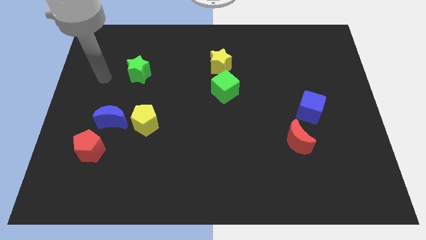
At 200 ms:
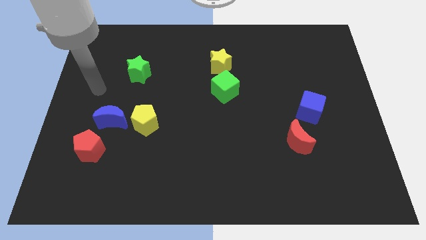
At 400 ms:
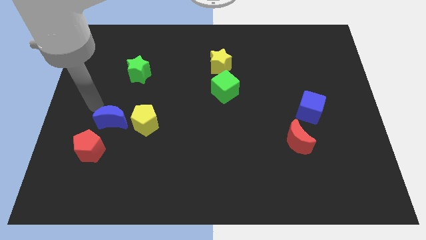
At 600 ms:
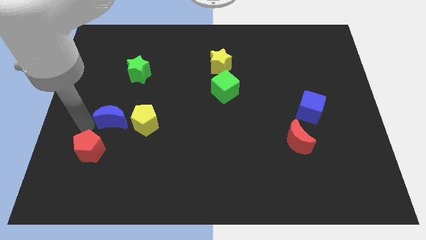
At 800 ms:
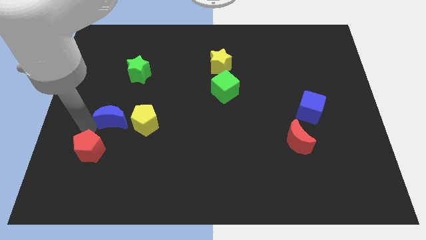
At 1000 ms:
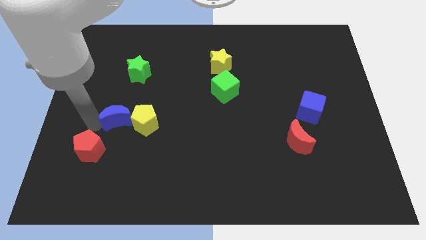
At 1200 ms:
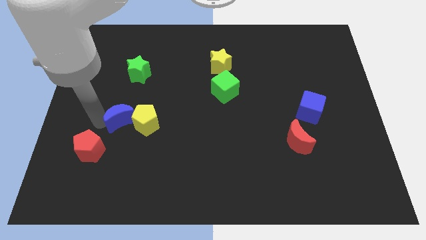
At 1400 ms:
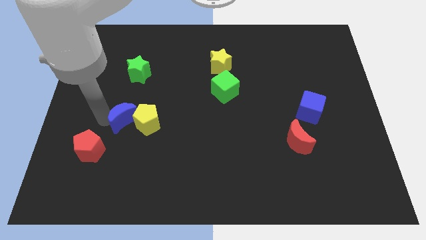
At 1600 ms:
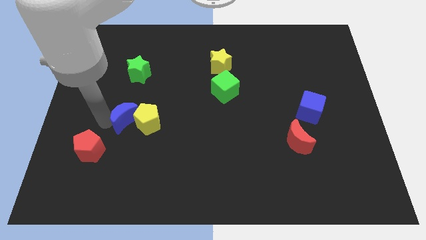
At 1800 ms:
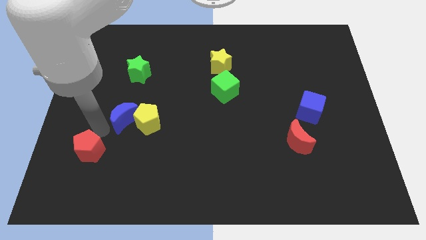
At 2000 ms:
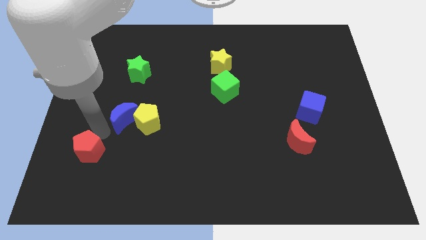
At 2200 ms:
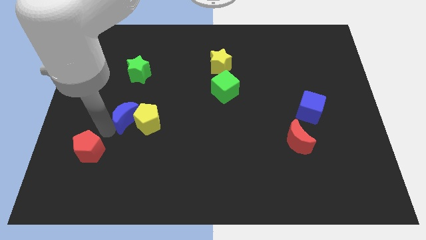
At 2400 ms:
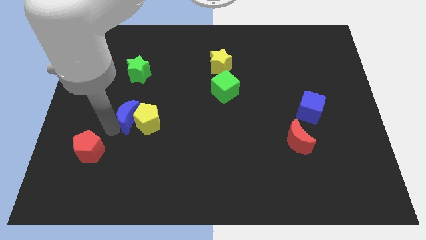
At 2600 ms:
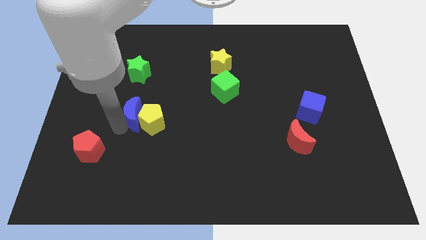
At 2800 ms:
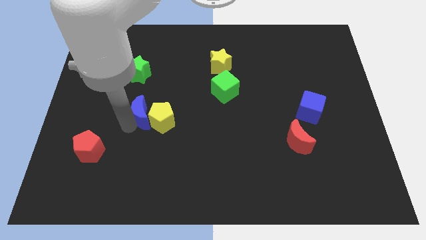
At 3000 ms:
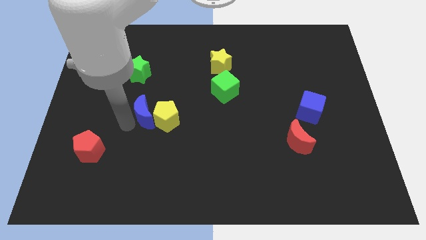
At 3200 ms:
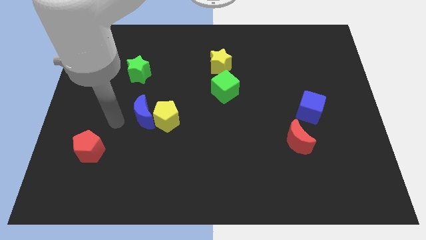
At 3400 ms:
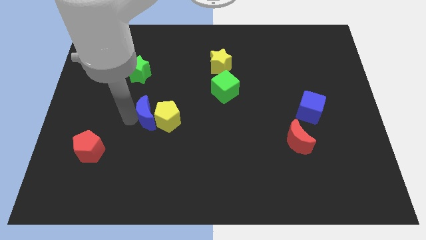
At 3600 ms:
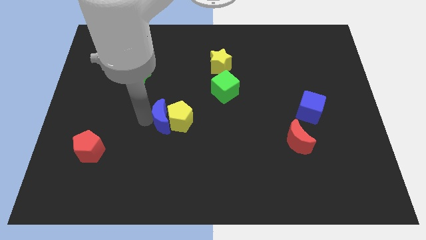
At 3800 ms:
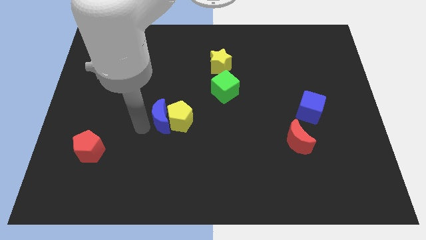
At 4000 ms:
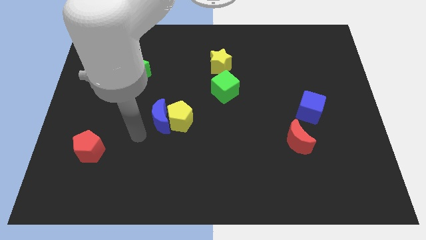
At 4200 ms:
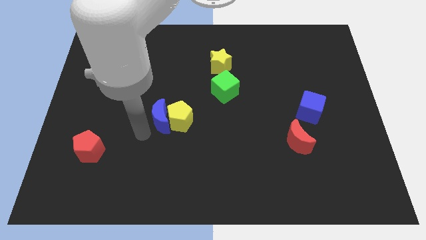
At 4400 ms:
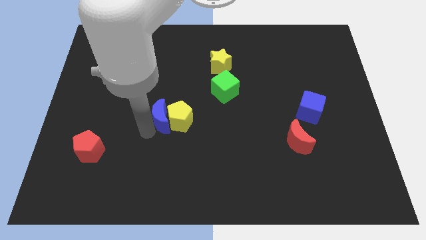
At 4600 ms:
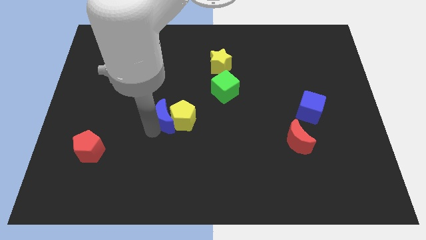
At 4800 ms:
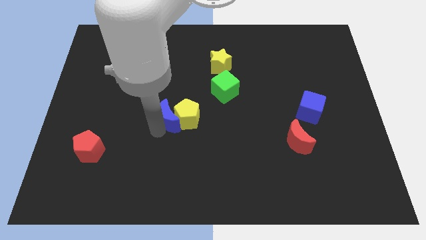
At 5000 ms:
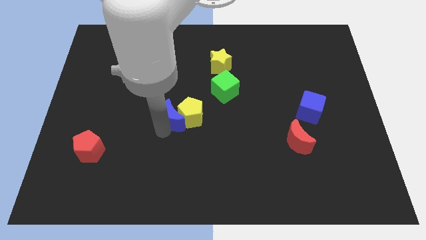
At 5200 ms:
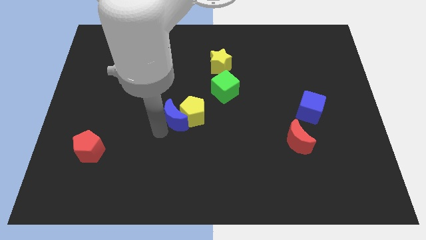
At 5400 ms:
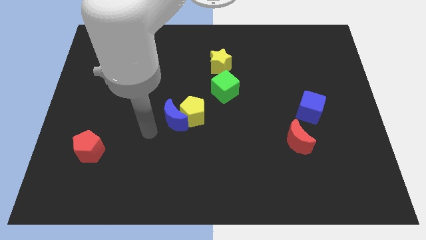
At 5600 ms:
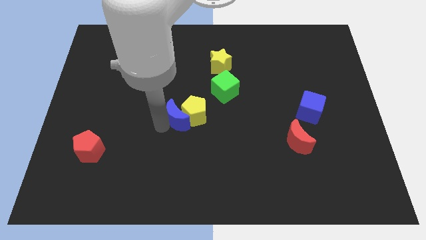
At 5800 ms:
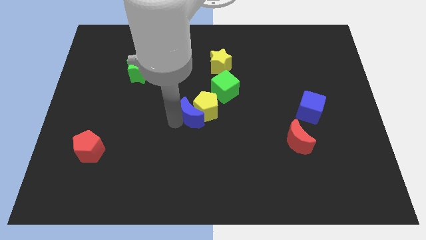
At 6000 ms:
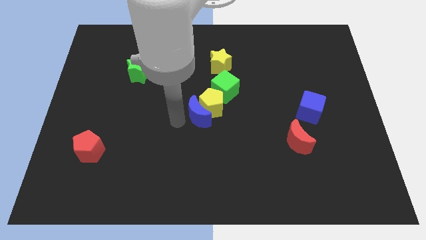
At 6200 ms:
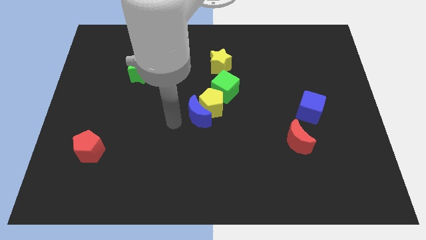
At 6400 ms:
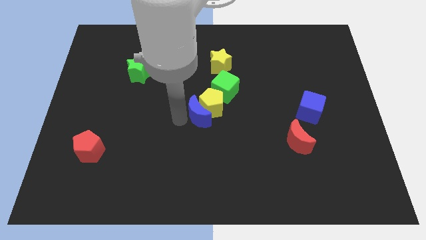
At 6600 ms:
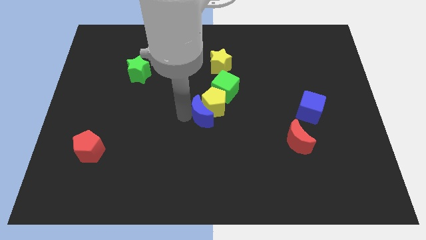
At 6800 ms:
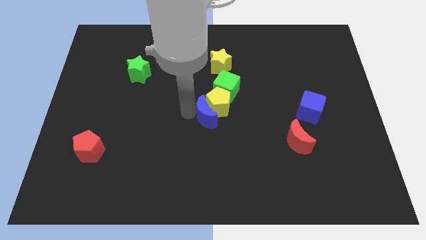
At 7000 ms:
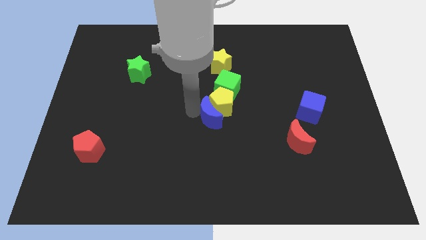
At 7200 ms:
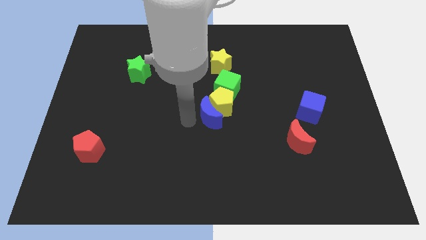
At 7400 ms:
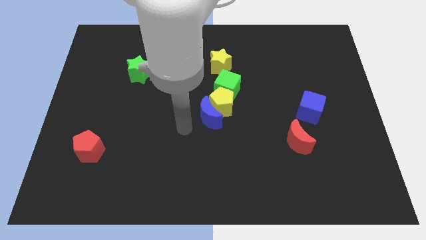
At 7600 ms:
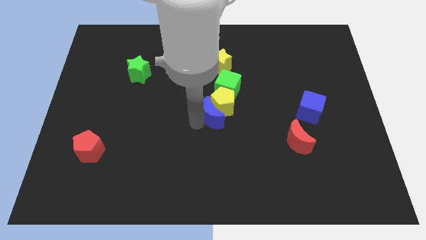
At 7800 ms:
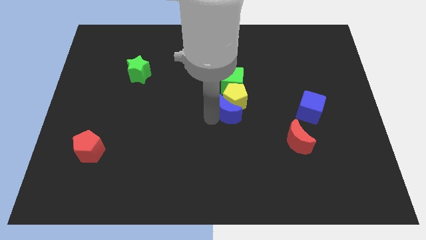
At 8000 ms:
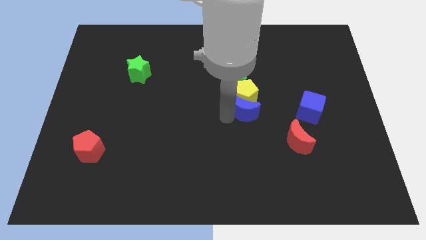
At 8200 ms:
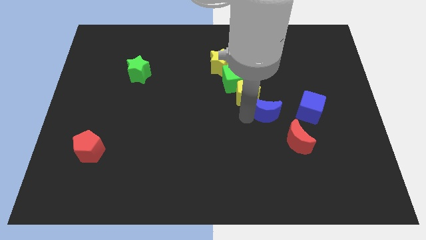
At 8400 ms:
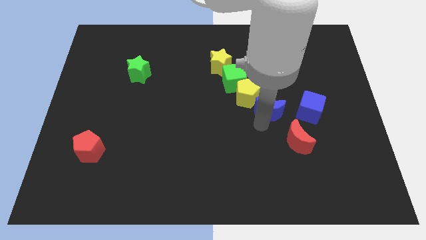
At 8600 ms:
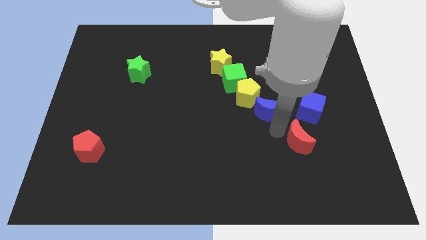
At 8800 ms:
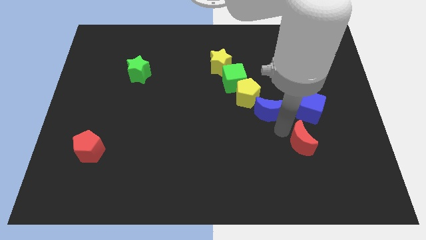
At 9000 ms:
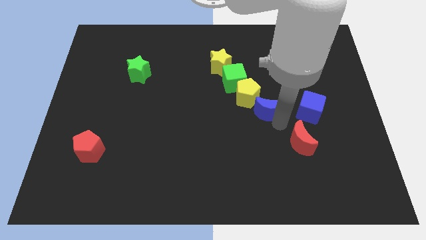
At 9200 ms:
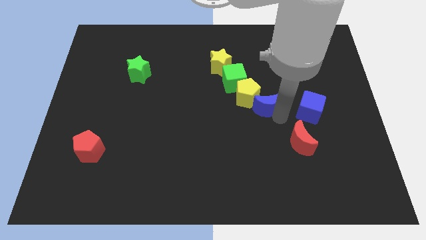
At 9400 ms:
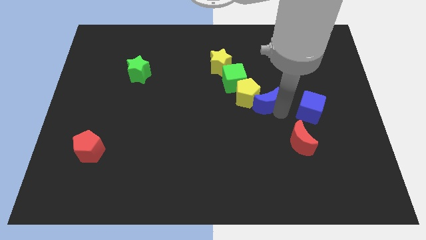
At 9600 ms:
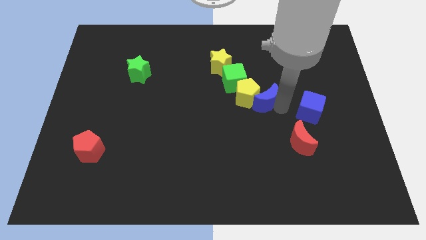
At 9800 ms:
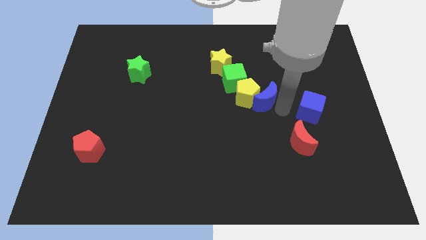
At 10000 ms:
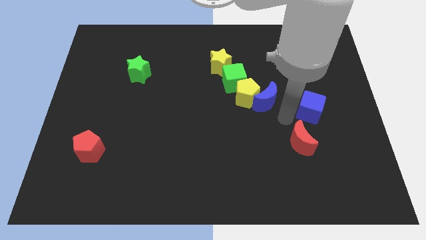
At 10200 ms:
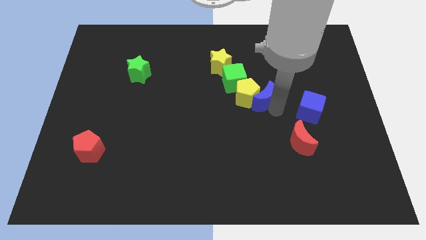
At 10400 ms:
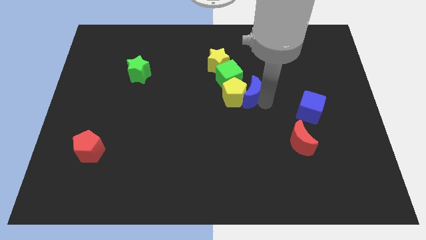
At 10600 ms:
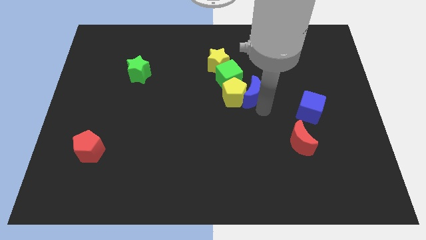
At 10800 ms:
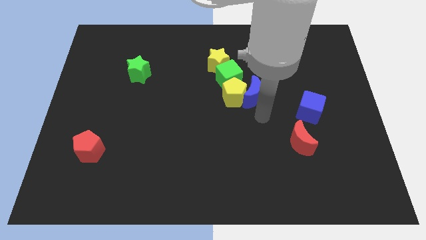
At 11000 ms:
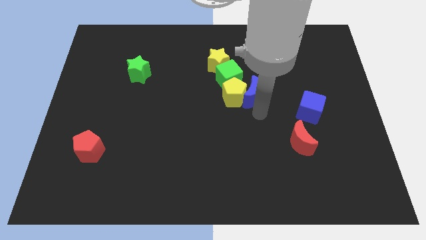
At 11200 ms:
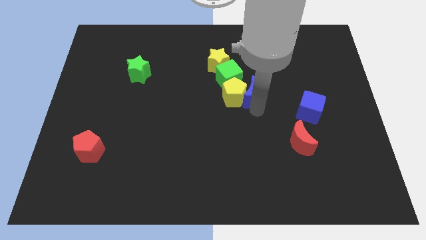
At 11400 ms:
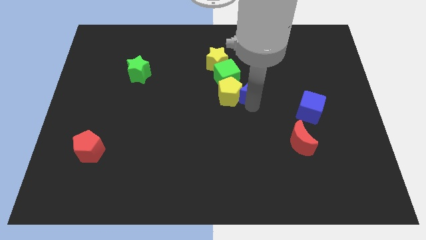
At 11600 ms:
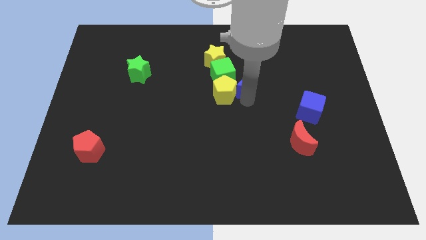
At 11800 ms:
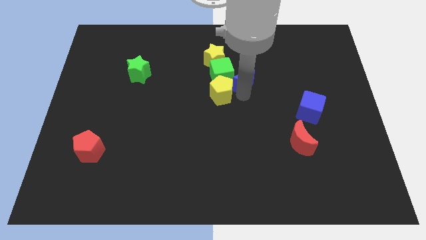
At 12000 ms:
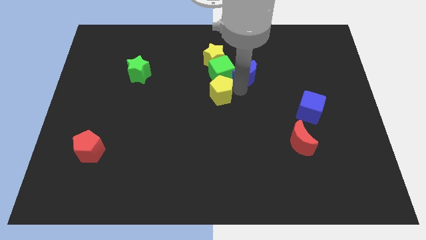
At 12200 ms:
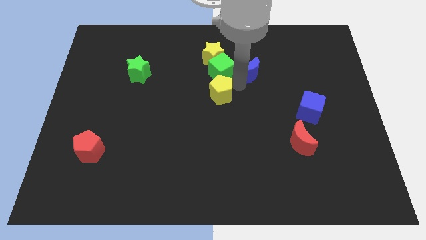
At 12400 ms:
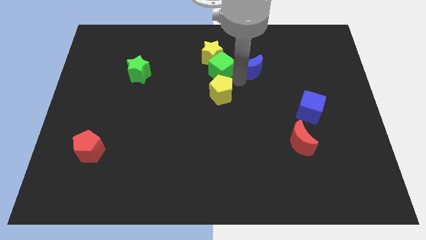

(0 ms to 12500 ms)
slide the blue moon just right of the yellow star

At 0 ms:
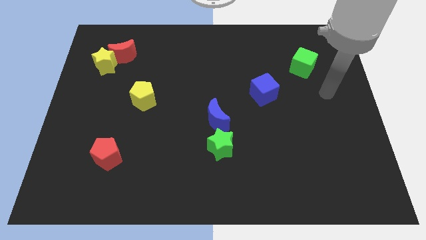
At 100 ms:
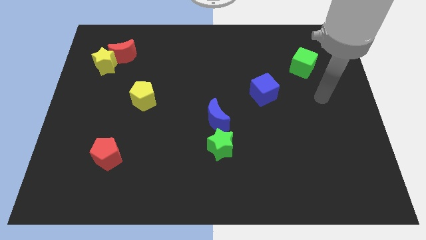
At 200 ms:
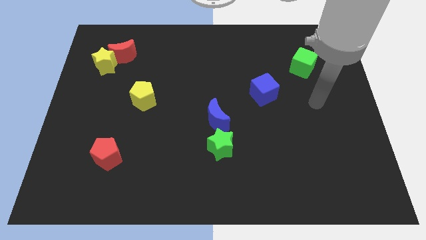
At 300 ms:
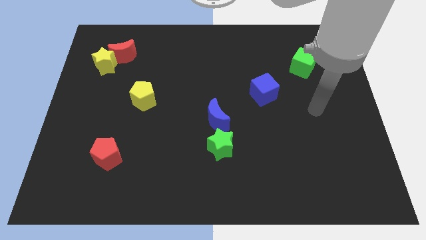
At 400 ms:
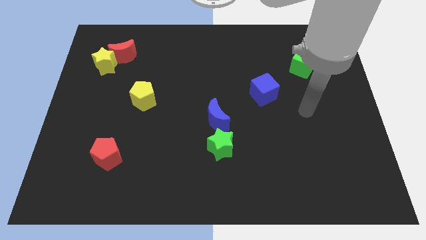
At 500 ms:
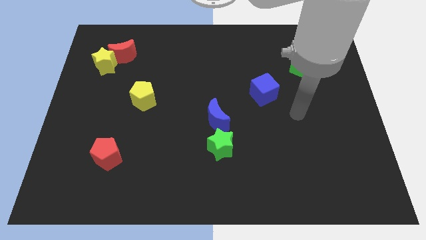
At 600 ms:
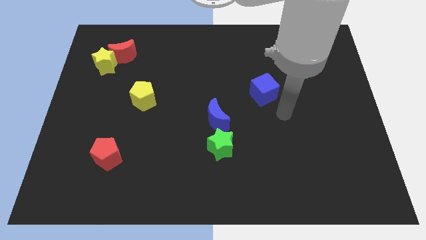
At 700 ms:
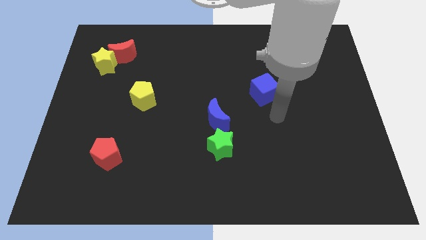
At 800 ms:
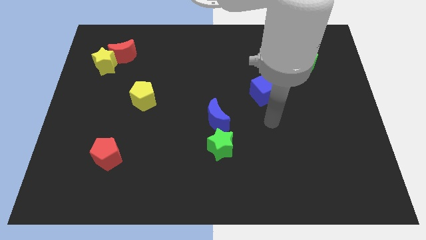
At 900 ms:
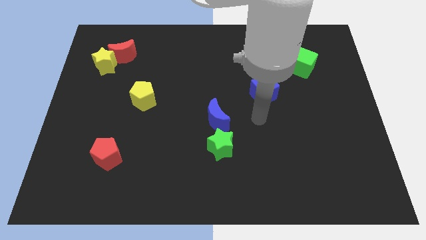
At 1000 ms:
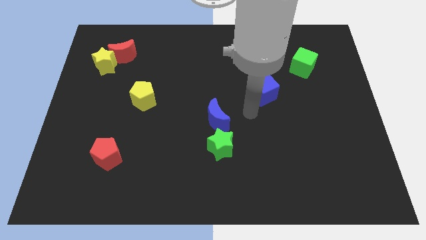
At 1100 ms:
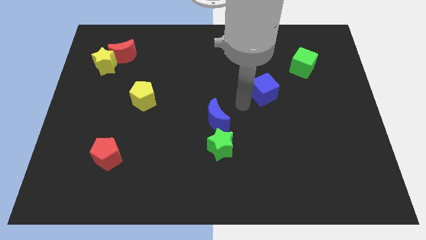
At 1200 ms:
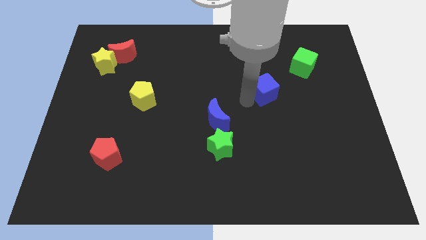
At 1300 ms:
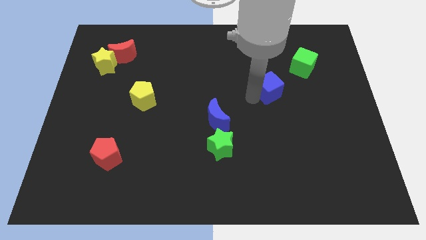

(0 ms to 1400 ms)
push the blue cube diagonally down and to the left of the green cube
